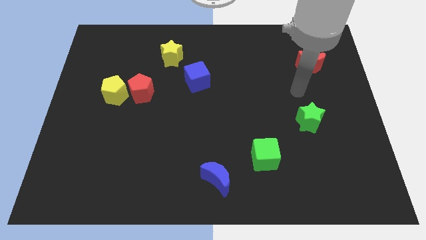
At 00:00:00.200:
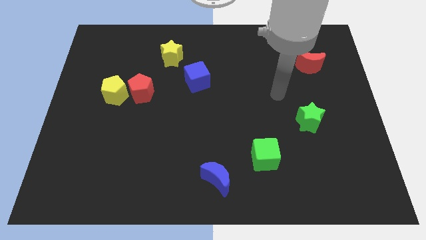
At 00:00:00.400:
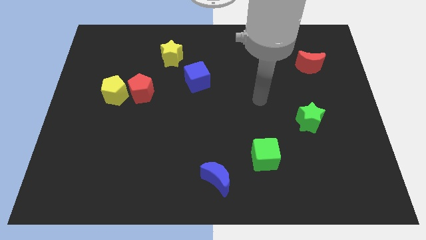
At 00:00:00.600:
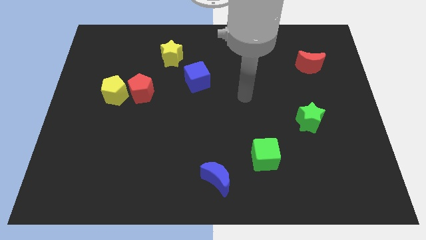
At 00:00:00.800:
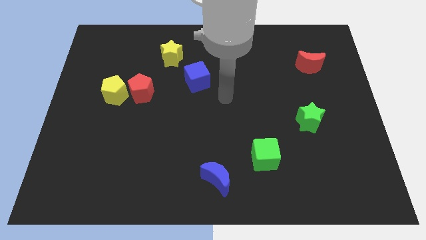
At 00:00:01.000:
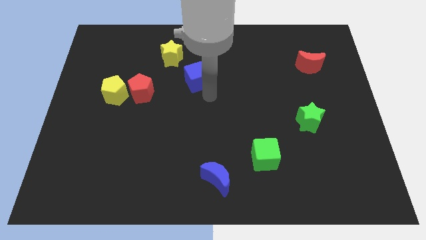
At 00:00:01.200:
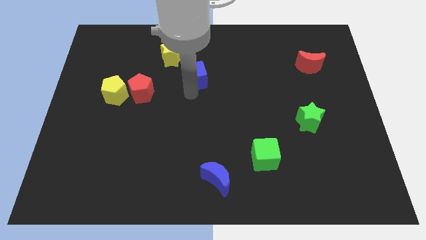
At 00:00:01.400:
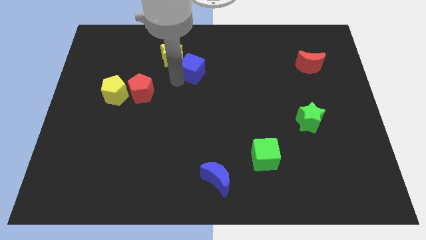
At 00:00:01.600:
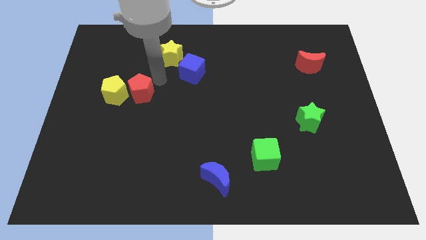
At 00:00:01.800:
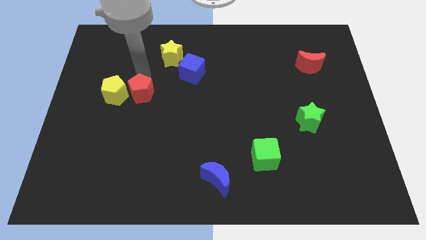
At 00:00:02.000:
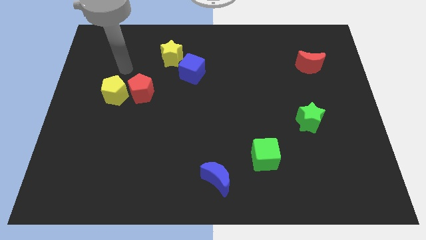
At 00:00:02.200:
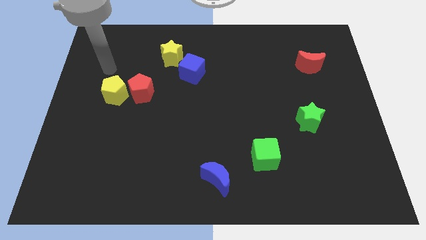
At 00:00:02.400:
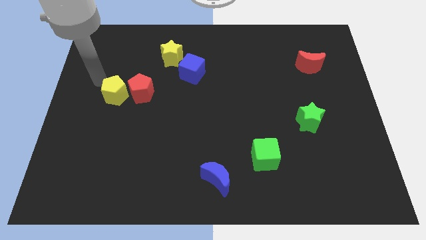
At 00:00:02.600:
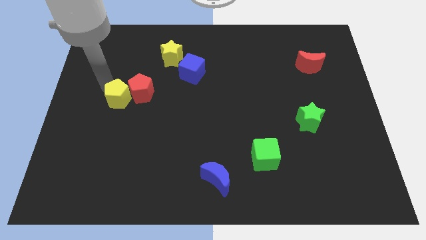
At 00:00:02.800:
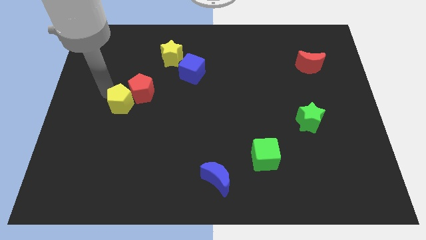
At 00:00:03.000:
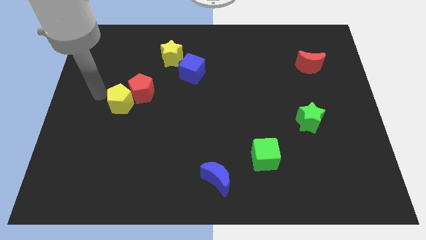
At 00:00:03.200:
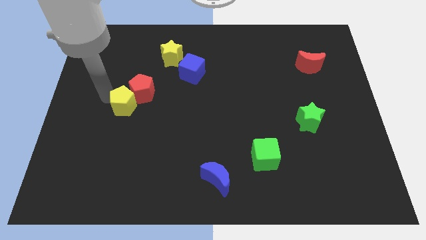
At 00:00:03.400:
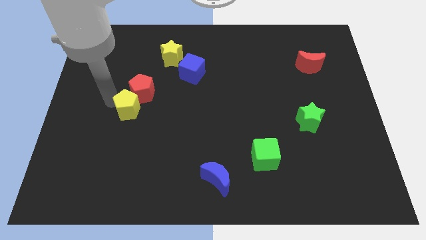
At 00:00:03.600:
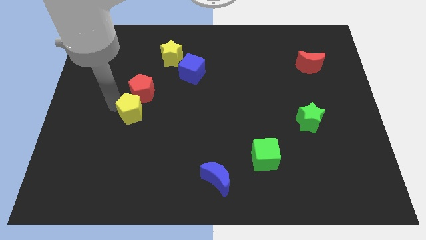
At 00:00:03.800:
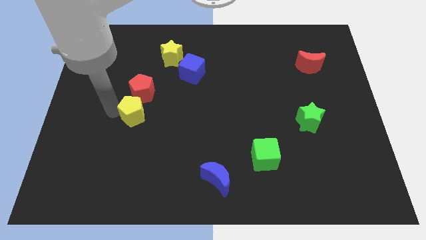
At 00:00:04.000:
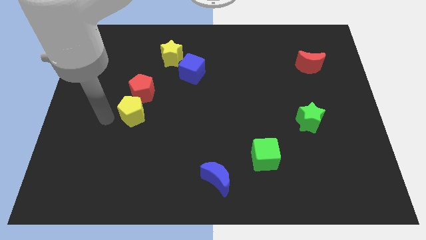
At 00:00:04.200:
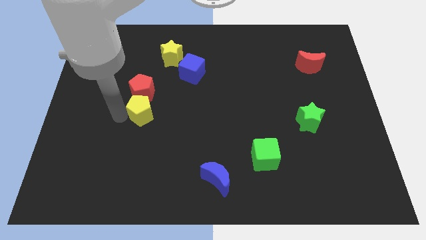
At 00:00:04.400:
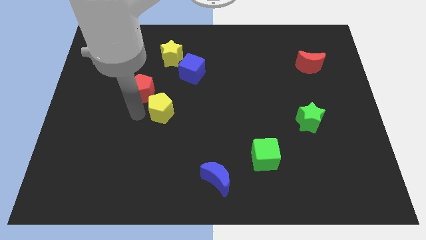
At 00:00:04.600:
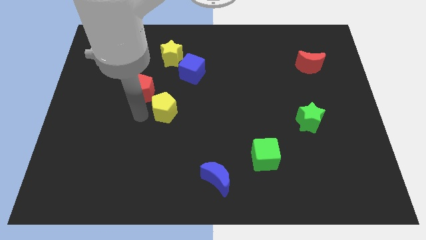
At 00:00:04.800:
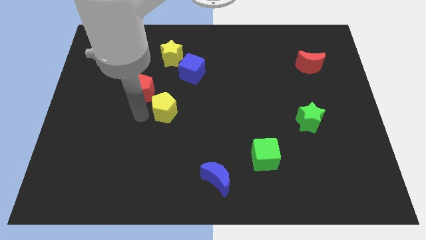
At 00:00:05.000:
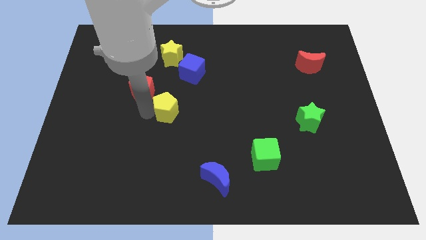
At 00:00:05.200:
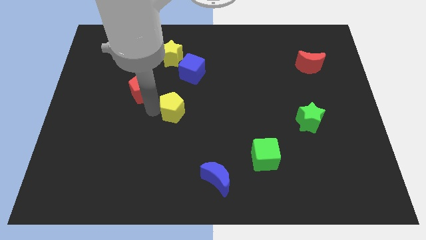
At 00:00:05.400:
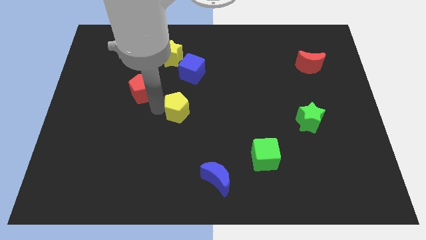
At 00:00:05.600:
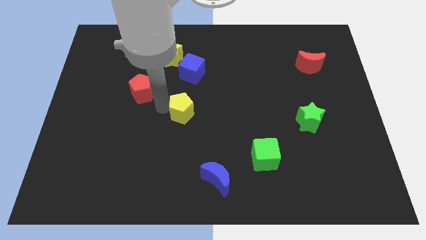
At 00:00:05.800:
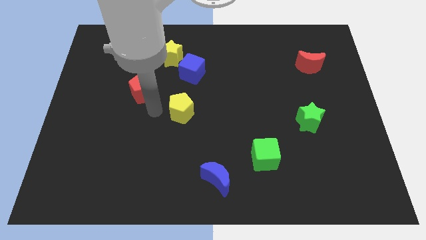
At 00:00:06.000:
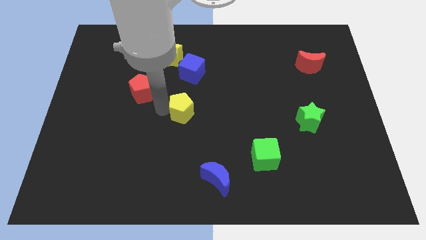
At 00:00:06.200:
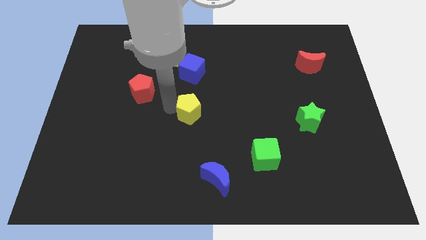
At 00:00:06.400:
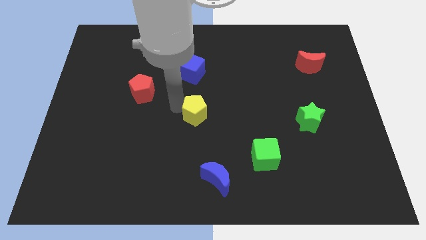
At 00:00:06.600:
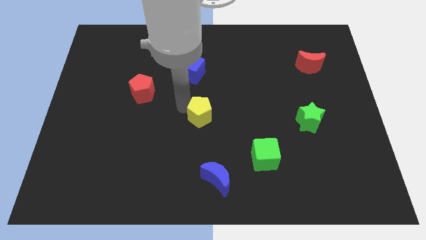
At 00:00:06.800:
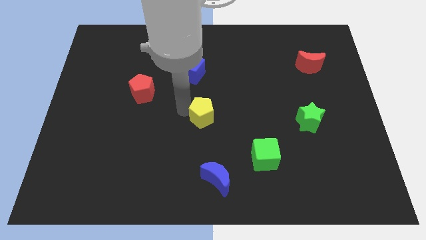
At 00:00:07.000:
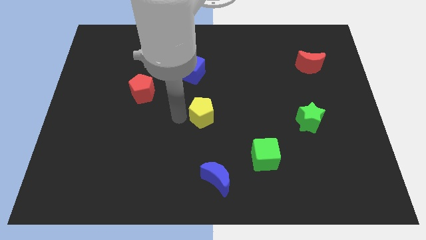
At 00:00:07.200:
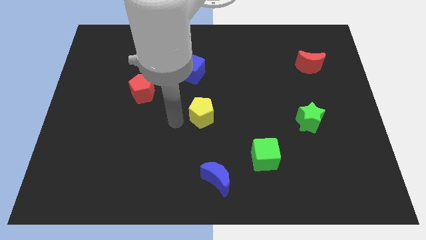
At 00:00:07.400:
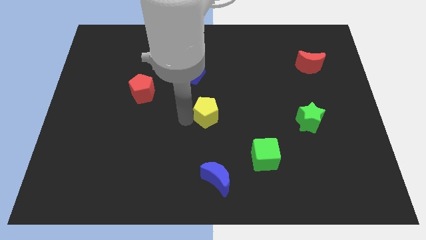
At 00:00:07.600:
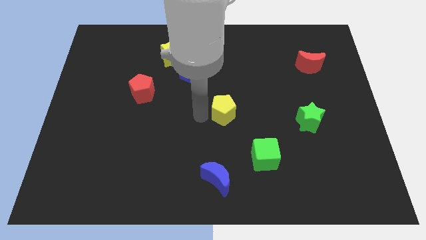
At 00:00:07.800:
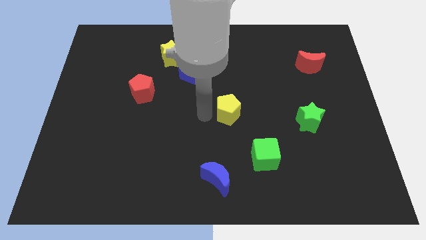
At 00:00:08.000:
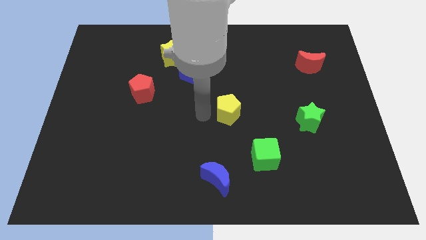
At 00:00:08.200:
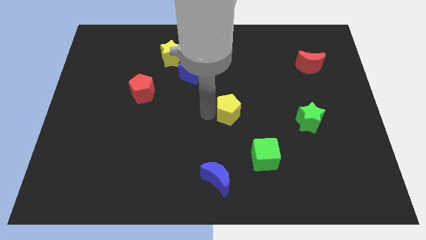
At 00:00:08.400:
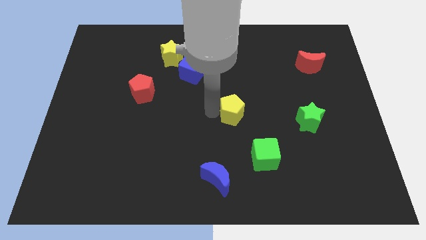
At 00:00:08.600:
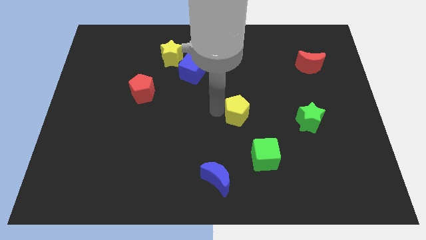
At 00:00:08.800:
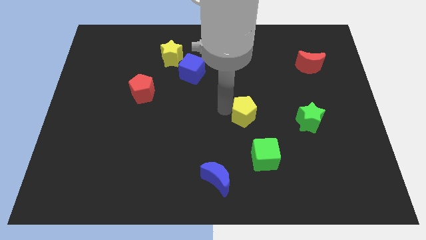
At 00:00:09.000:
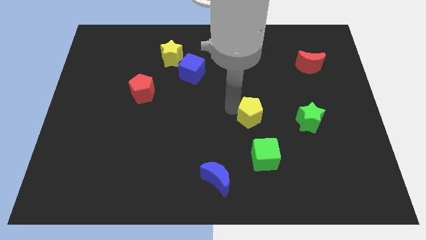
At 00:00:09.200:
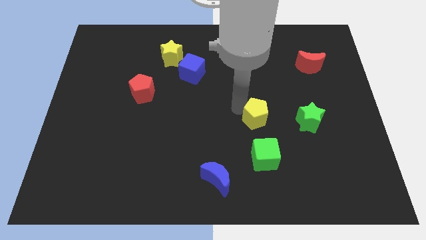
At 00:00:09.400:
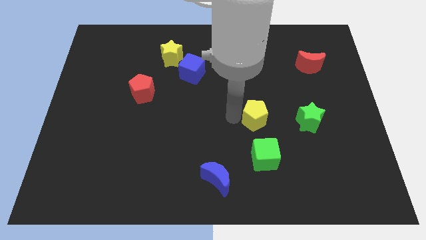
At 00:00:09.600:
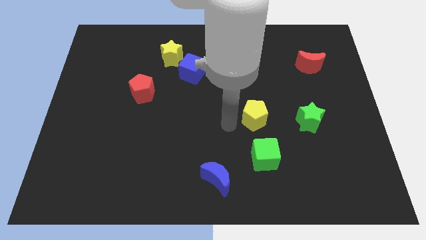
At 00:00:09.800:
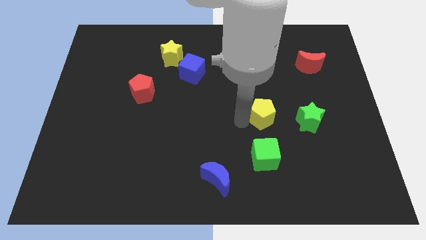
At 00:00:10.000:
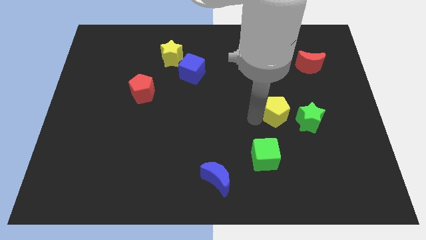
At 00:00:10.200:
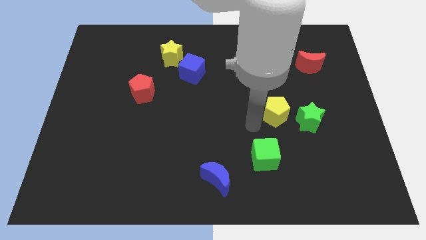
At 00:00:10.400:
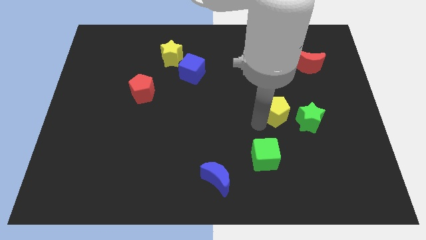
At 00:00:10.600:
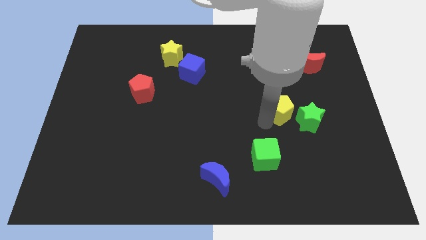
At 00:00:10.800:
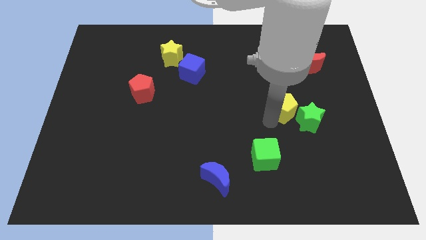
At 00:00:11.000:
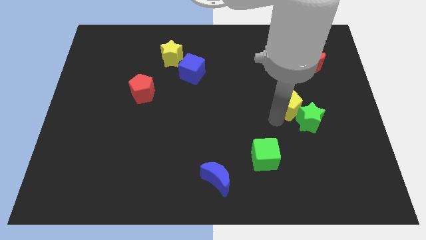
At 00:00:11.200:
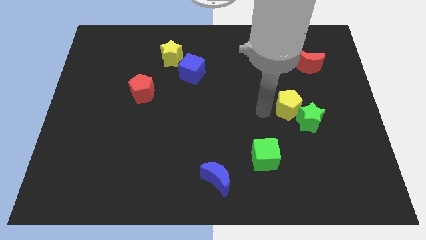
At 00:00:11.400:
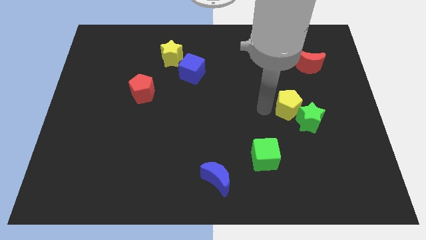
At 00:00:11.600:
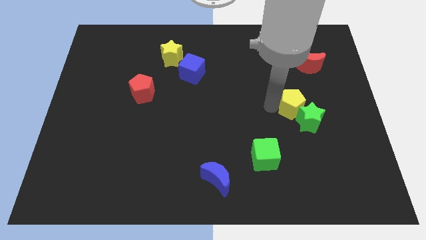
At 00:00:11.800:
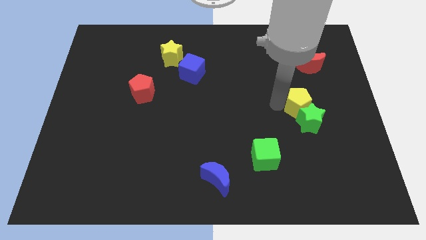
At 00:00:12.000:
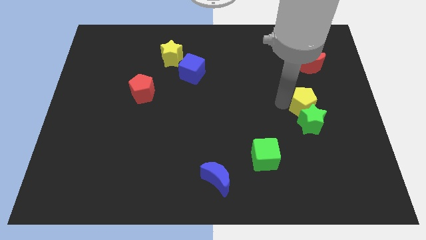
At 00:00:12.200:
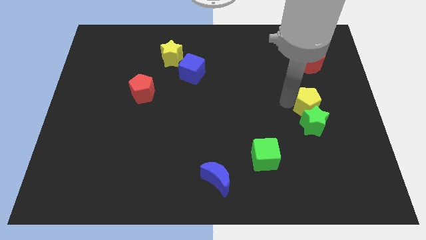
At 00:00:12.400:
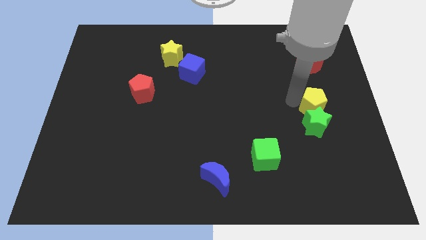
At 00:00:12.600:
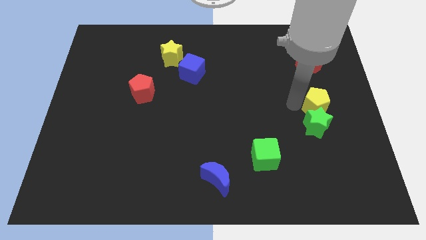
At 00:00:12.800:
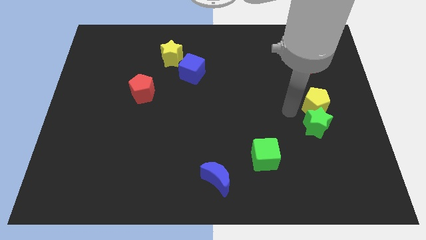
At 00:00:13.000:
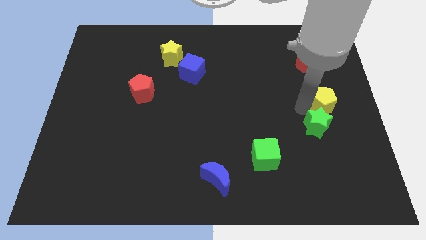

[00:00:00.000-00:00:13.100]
push the yellow pentagon to the right side

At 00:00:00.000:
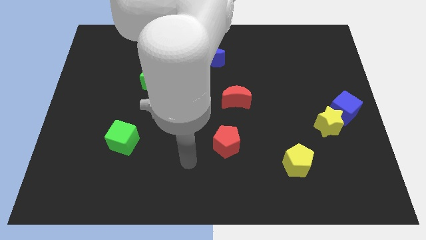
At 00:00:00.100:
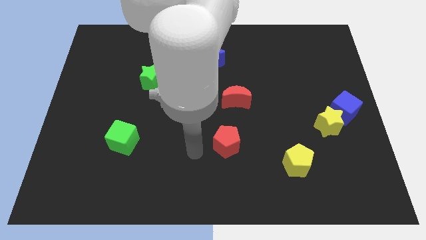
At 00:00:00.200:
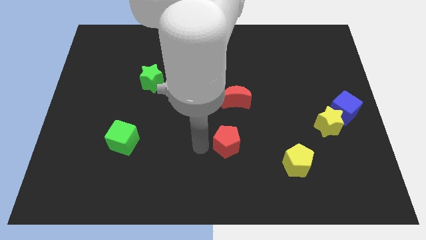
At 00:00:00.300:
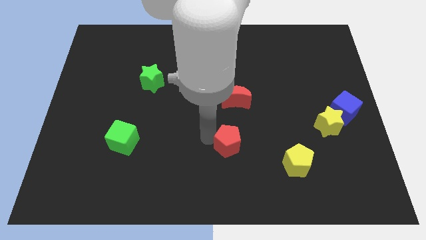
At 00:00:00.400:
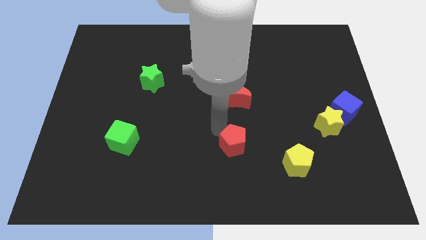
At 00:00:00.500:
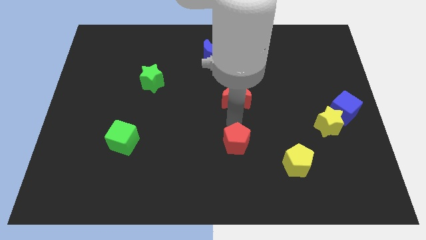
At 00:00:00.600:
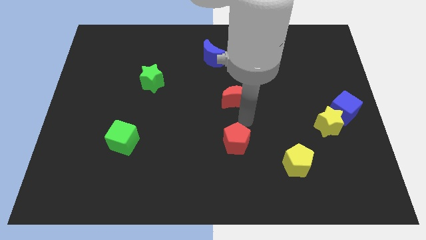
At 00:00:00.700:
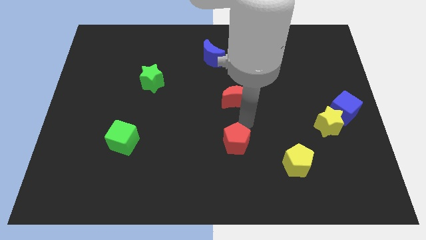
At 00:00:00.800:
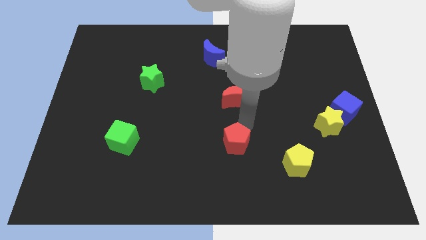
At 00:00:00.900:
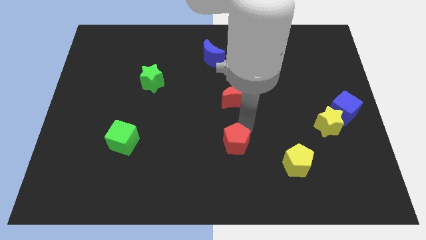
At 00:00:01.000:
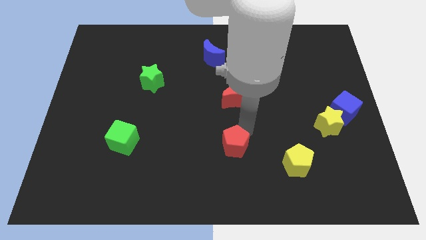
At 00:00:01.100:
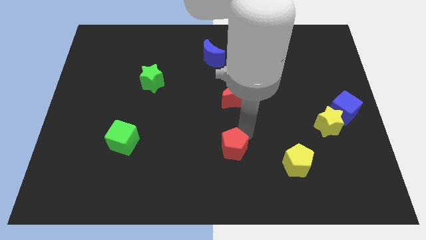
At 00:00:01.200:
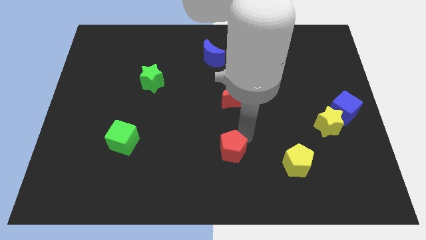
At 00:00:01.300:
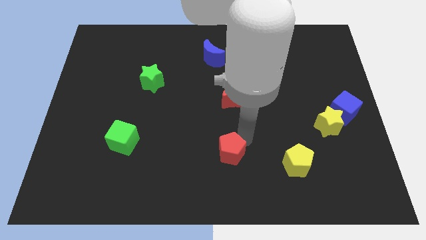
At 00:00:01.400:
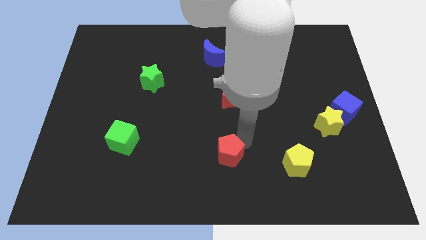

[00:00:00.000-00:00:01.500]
push the red pentagon to the bottom side
